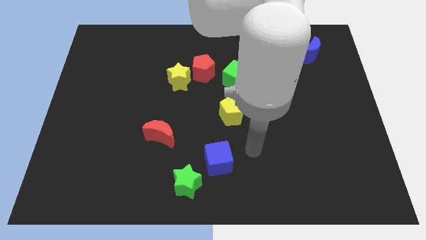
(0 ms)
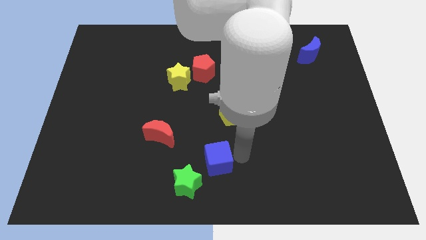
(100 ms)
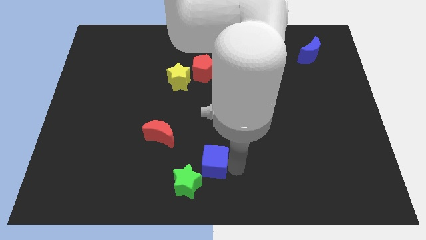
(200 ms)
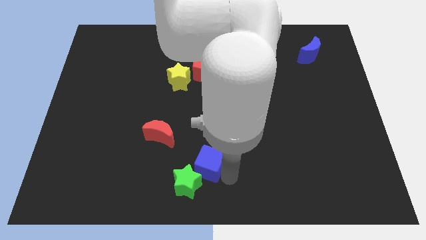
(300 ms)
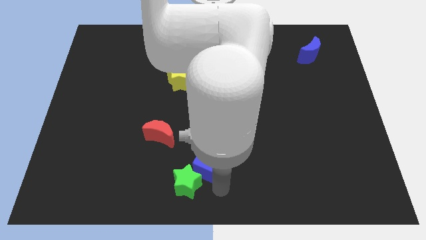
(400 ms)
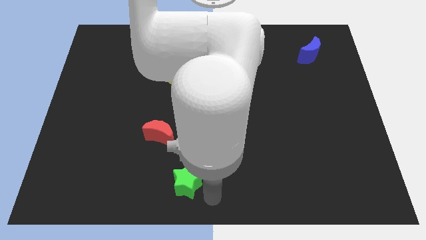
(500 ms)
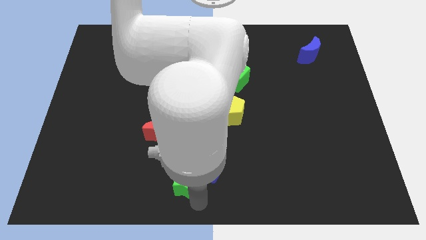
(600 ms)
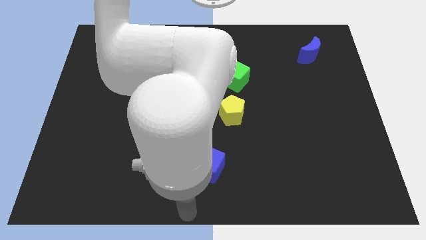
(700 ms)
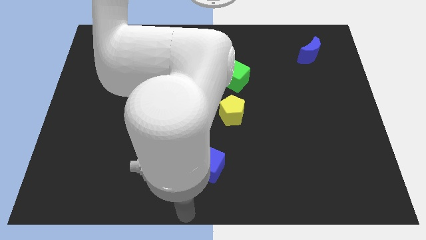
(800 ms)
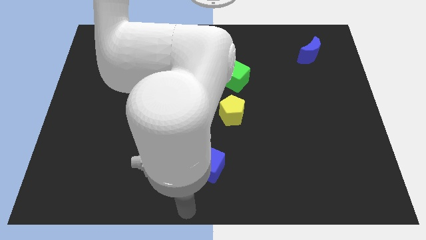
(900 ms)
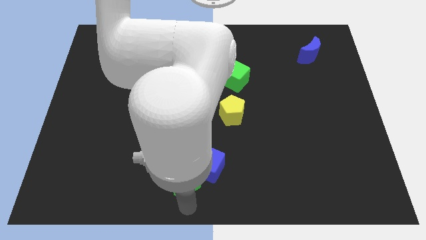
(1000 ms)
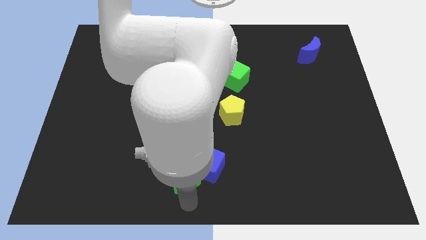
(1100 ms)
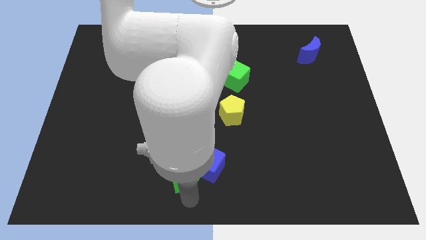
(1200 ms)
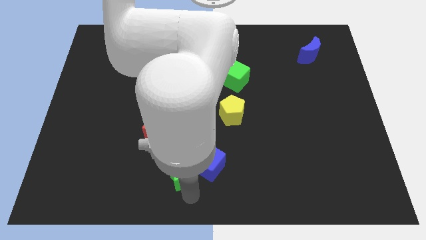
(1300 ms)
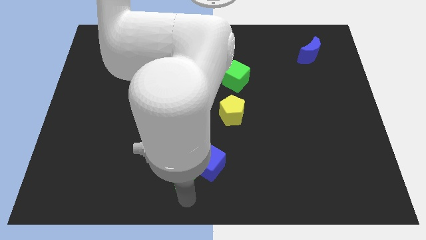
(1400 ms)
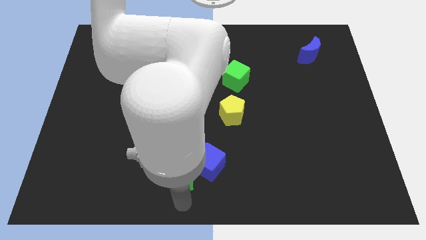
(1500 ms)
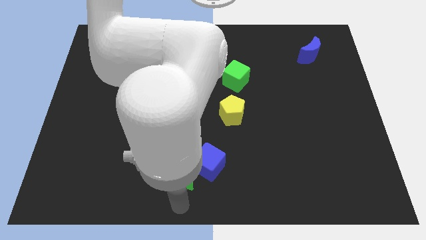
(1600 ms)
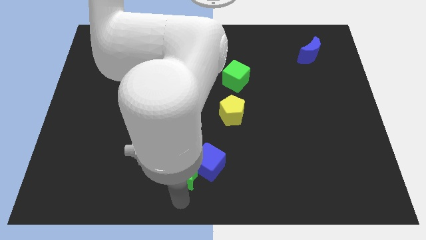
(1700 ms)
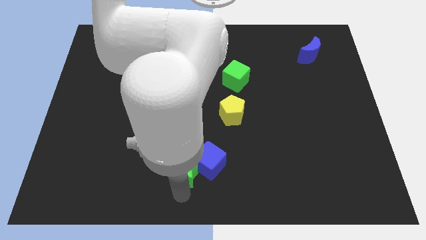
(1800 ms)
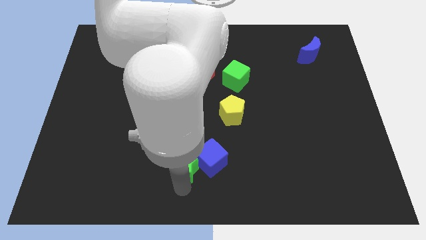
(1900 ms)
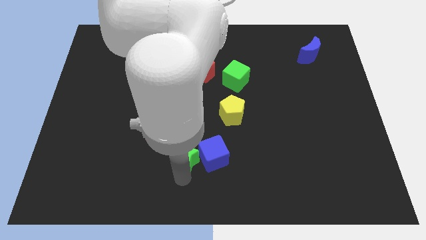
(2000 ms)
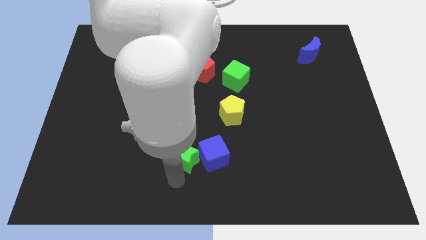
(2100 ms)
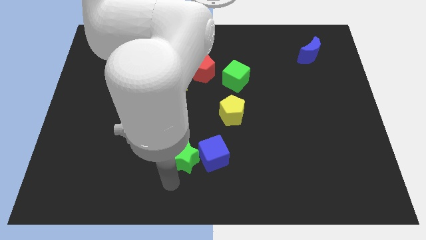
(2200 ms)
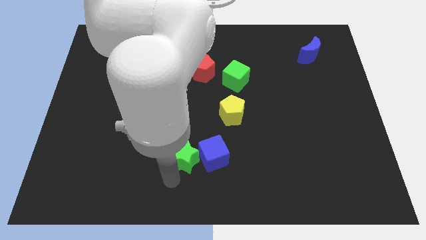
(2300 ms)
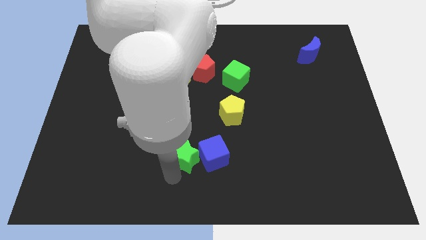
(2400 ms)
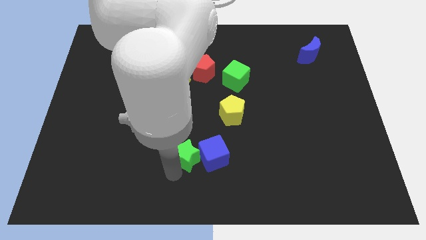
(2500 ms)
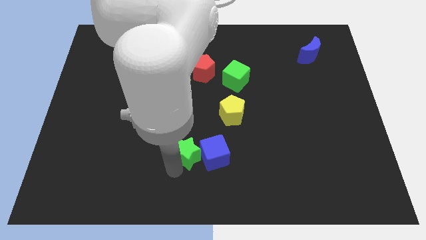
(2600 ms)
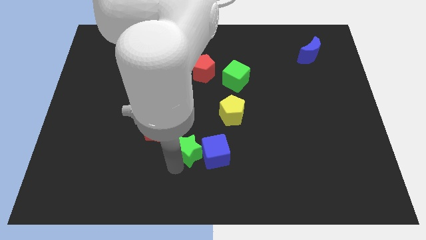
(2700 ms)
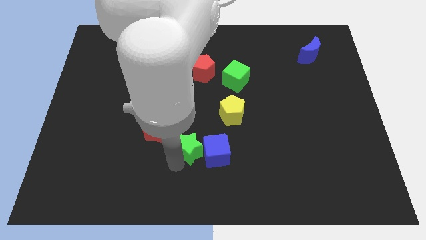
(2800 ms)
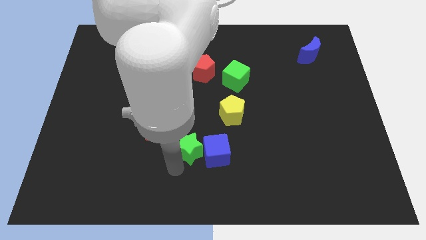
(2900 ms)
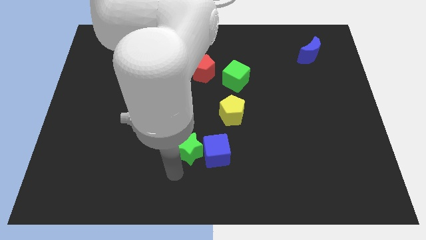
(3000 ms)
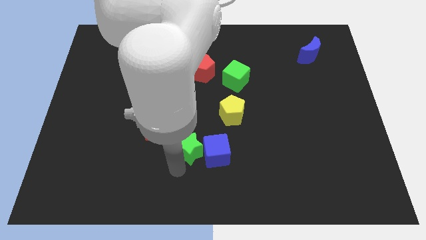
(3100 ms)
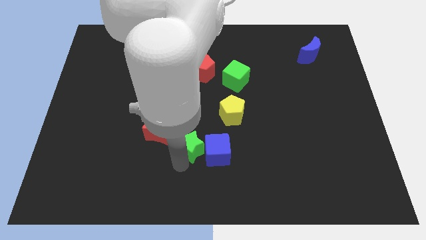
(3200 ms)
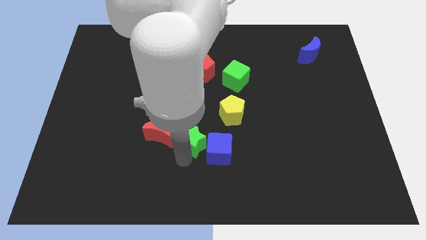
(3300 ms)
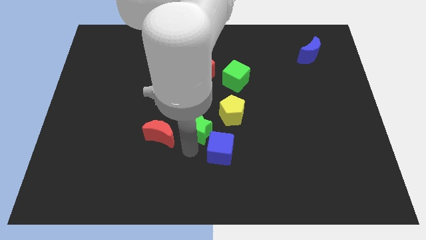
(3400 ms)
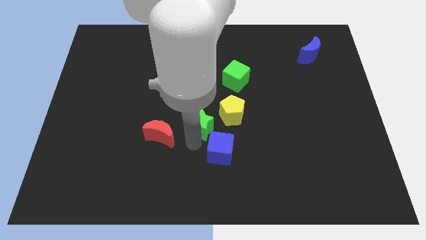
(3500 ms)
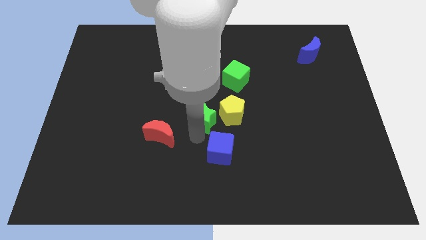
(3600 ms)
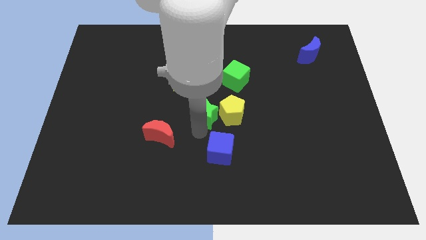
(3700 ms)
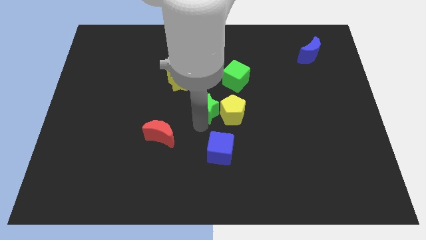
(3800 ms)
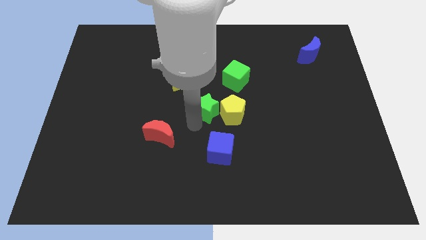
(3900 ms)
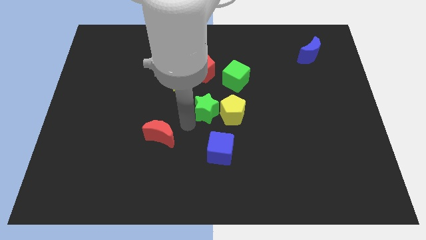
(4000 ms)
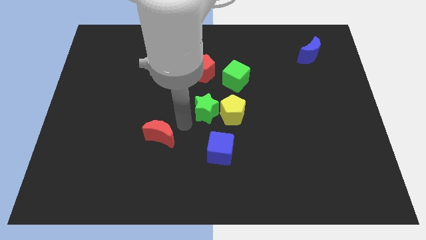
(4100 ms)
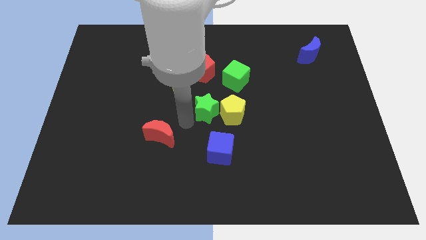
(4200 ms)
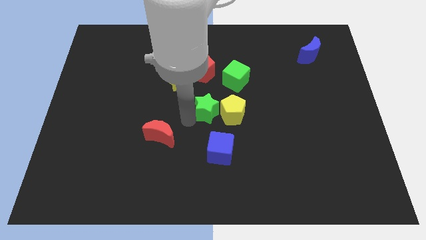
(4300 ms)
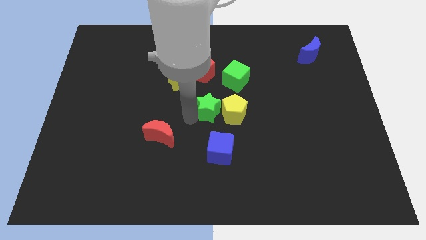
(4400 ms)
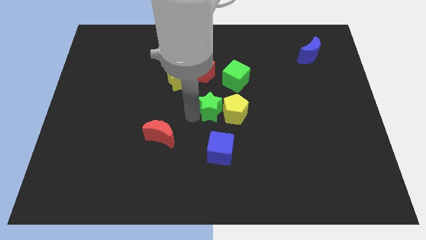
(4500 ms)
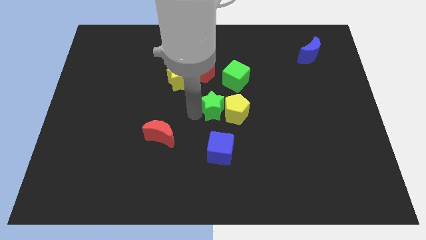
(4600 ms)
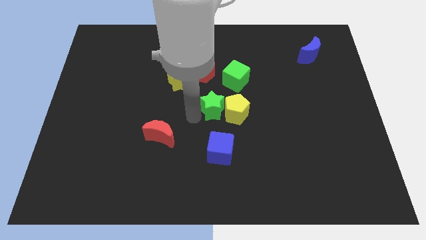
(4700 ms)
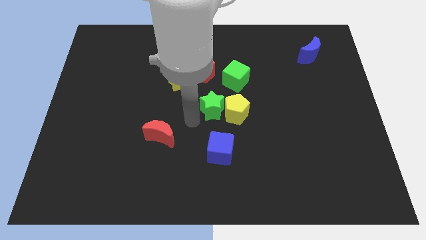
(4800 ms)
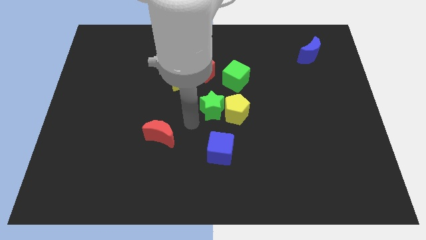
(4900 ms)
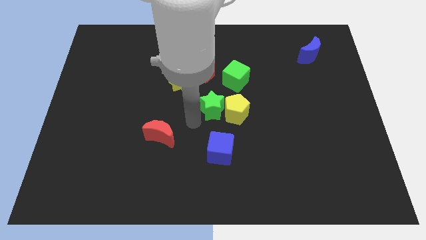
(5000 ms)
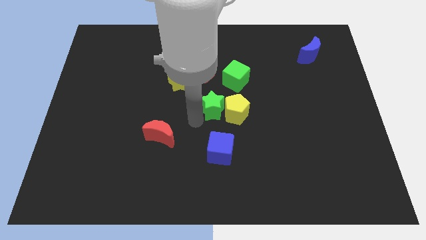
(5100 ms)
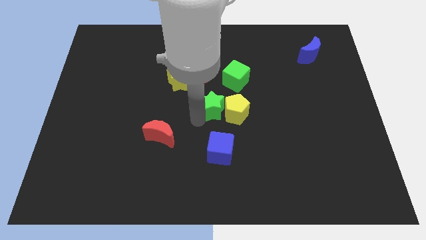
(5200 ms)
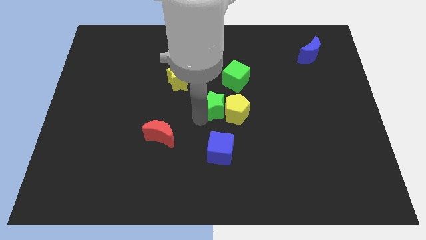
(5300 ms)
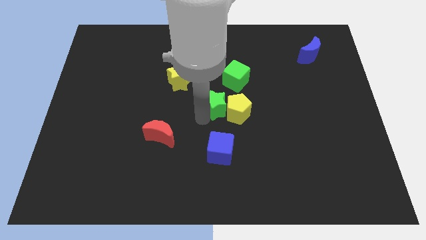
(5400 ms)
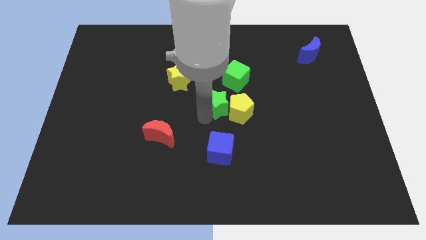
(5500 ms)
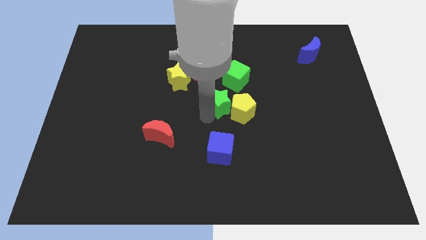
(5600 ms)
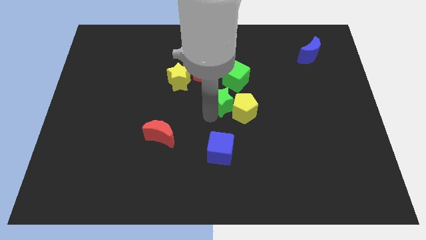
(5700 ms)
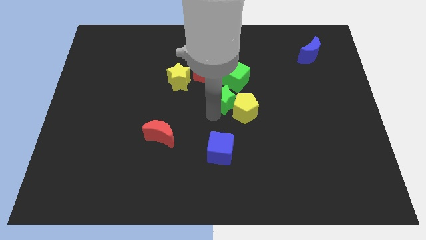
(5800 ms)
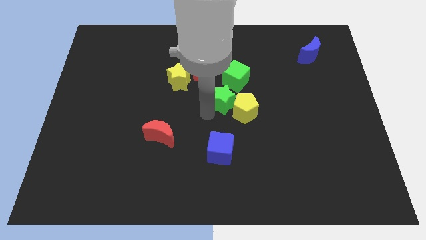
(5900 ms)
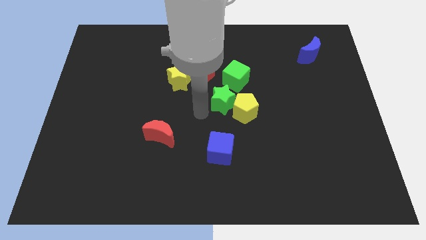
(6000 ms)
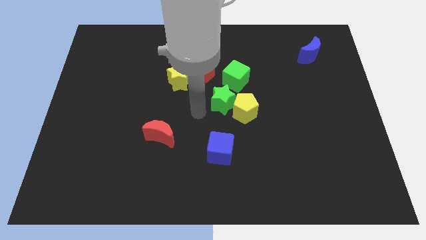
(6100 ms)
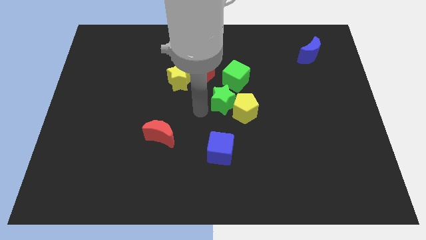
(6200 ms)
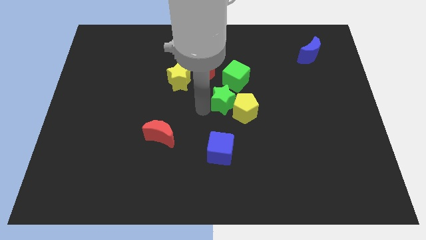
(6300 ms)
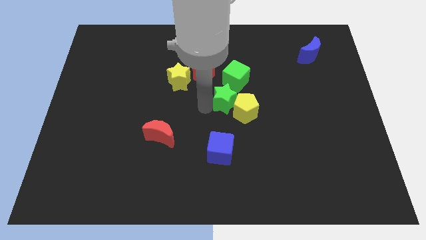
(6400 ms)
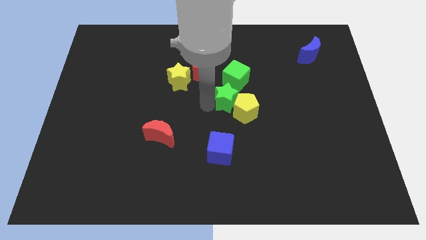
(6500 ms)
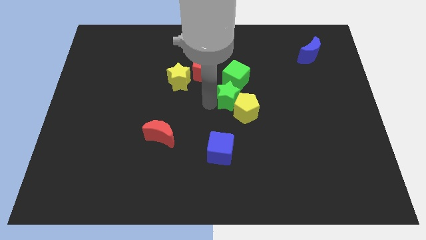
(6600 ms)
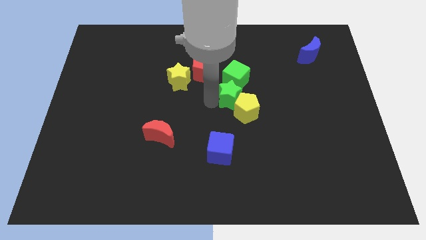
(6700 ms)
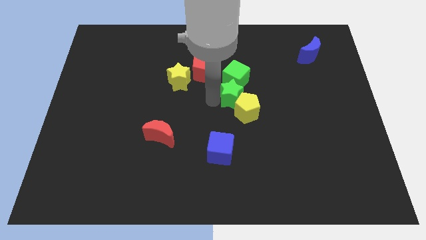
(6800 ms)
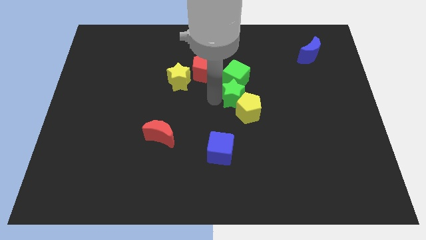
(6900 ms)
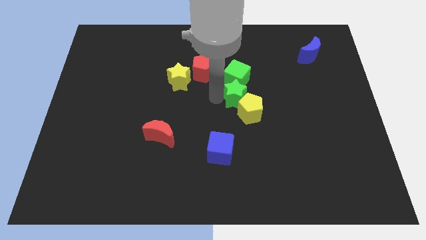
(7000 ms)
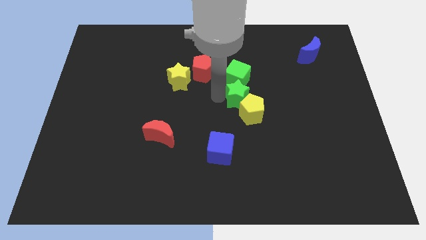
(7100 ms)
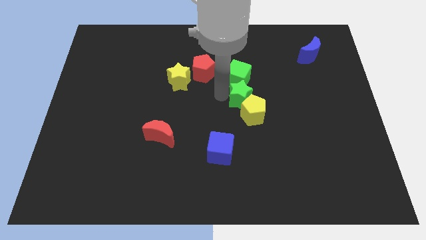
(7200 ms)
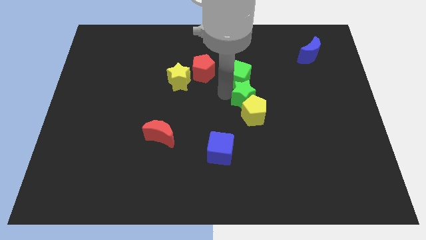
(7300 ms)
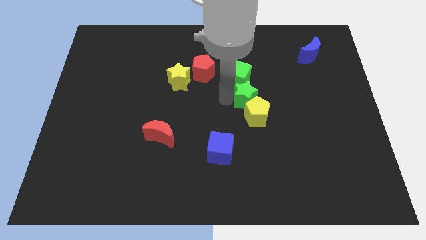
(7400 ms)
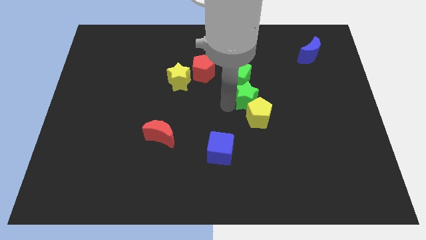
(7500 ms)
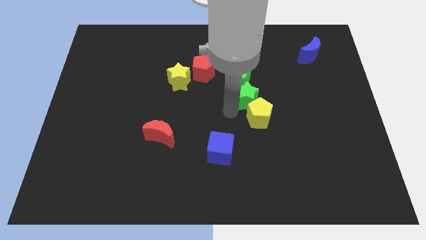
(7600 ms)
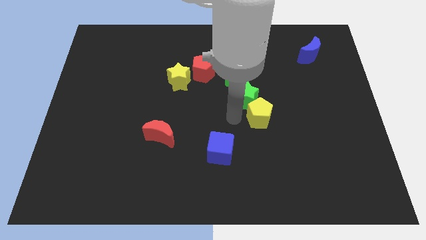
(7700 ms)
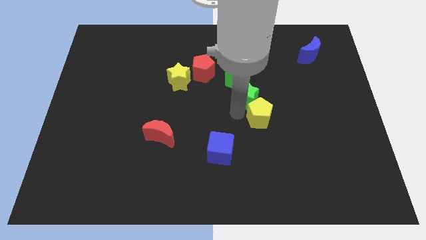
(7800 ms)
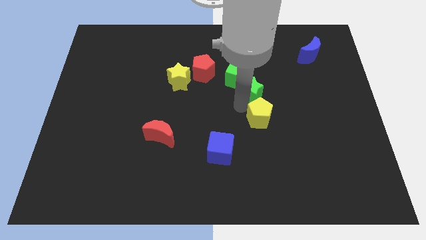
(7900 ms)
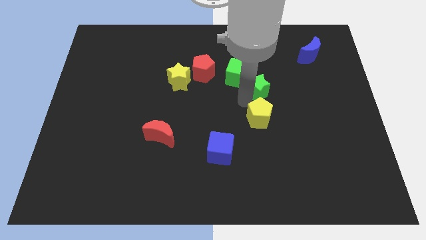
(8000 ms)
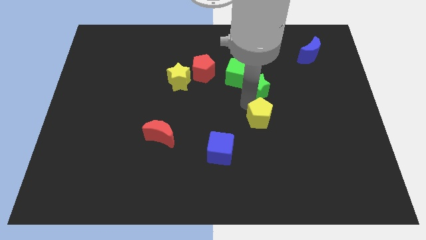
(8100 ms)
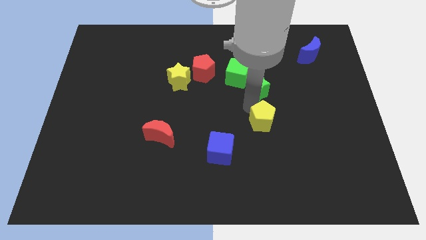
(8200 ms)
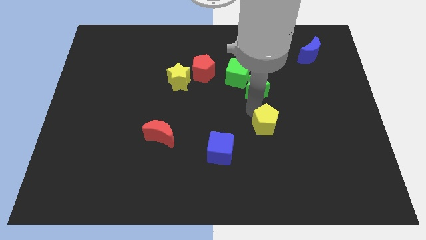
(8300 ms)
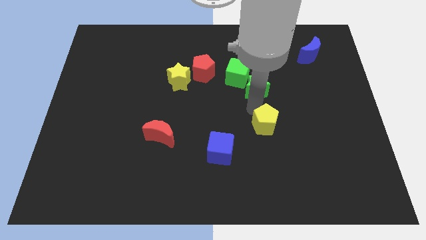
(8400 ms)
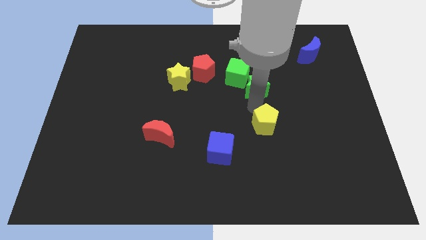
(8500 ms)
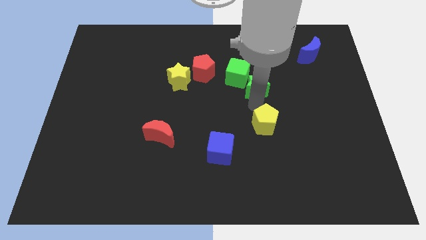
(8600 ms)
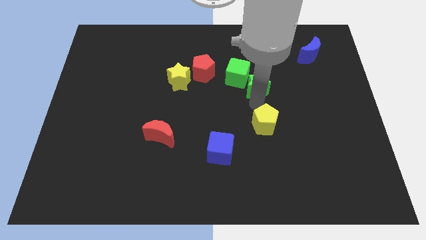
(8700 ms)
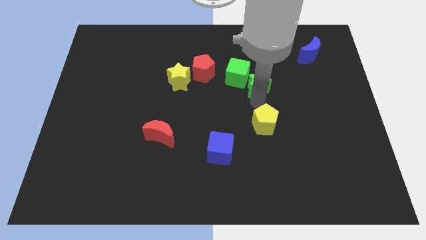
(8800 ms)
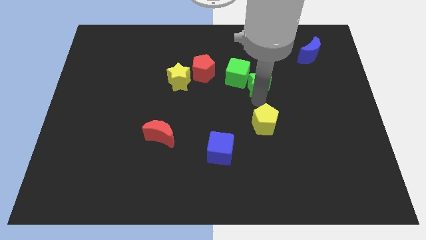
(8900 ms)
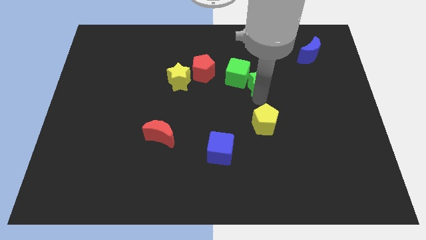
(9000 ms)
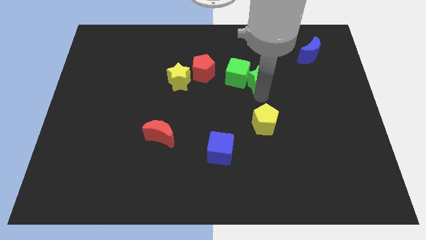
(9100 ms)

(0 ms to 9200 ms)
move the green star to the right of the red pentagon
